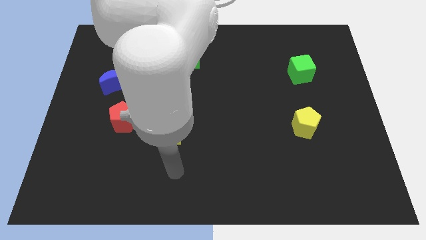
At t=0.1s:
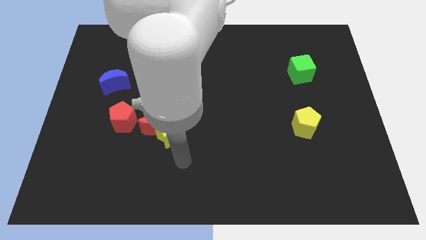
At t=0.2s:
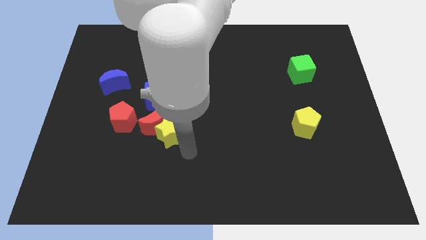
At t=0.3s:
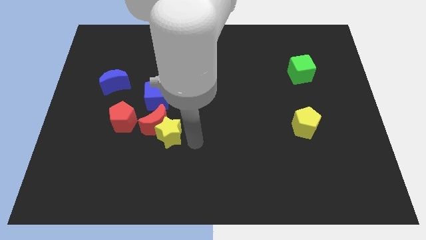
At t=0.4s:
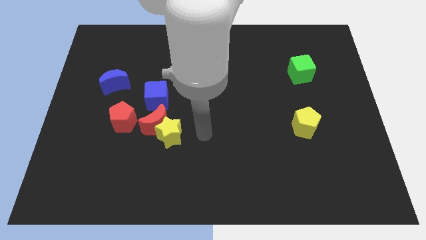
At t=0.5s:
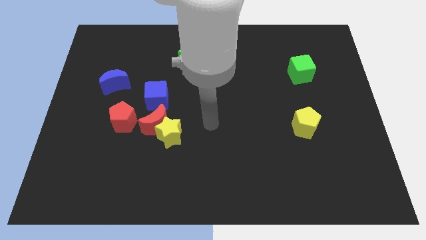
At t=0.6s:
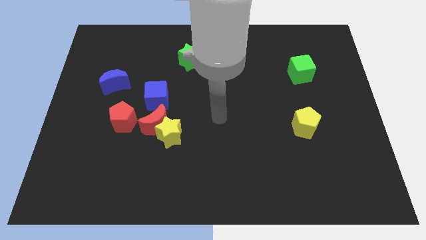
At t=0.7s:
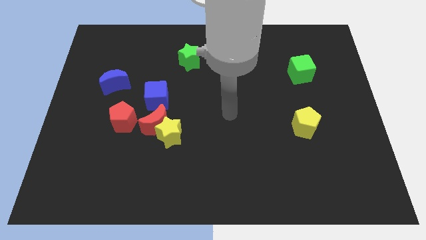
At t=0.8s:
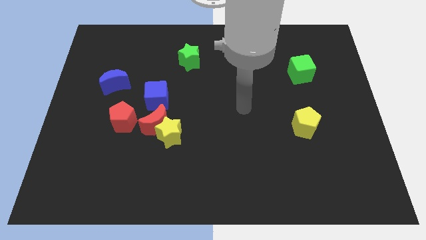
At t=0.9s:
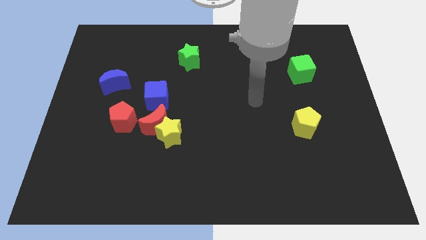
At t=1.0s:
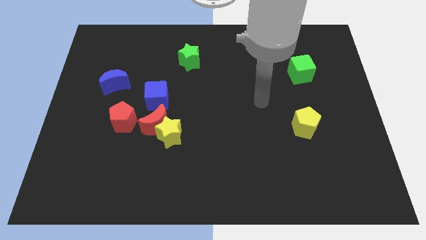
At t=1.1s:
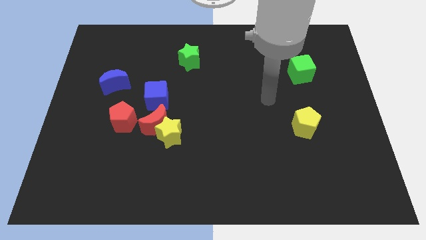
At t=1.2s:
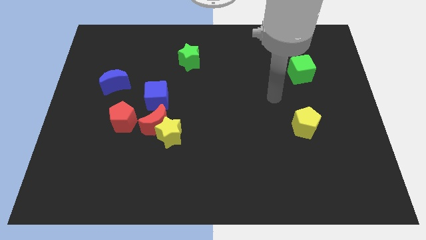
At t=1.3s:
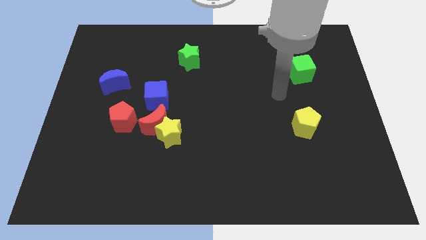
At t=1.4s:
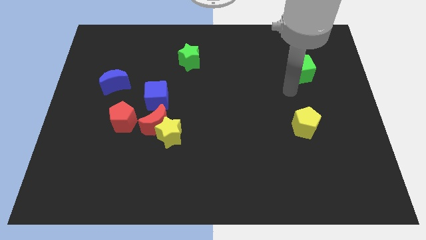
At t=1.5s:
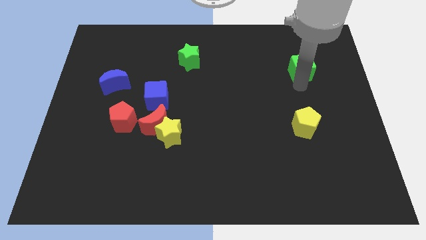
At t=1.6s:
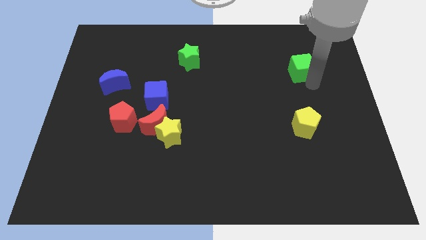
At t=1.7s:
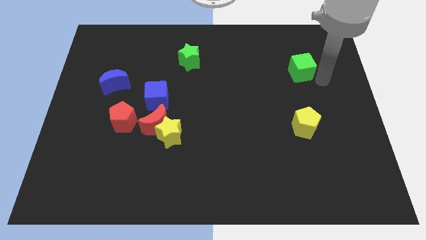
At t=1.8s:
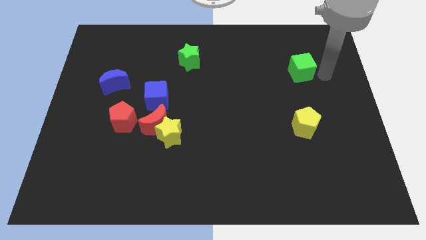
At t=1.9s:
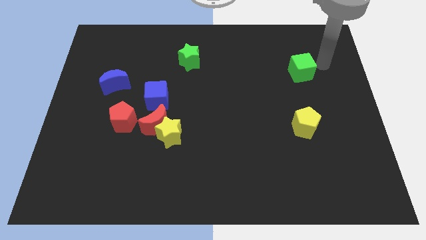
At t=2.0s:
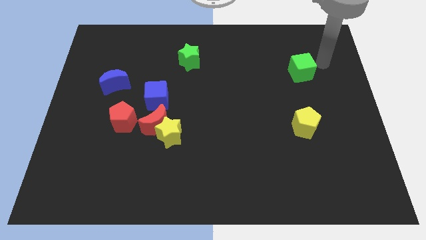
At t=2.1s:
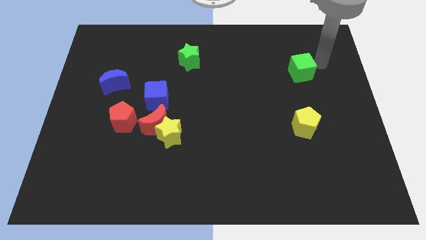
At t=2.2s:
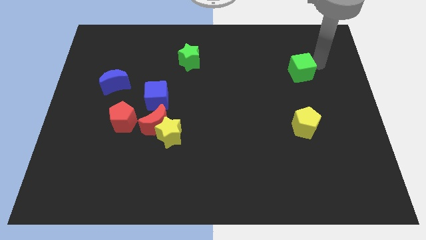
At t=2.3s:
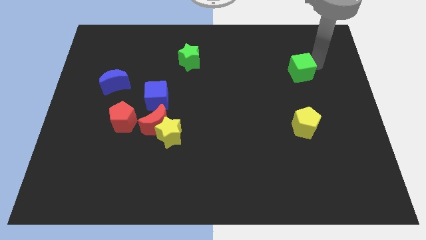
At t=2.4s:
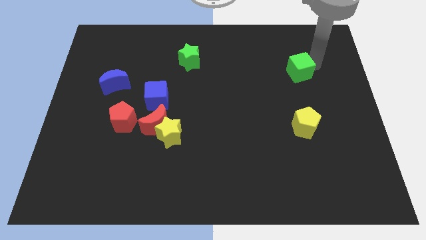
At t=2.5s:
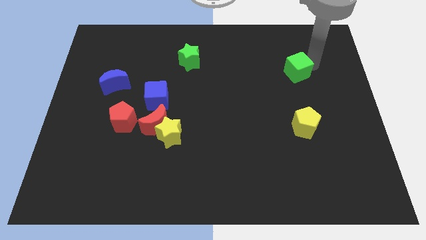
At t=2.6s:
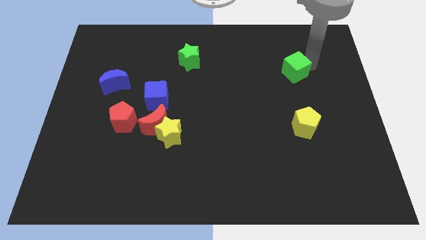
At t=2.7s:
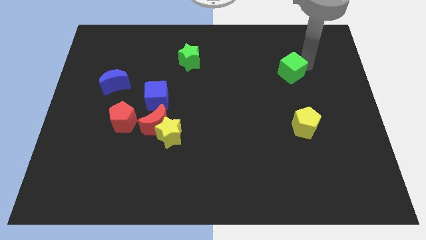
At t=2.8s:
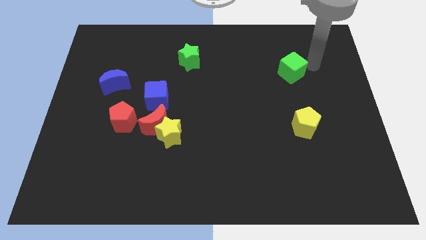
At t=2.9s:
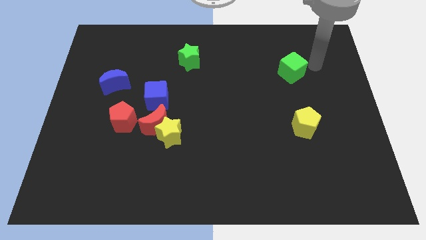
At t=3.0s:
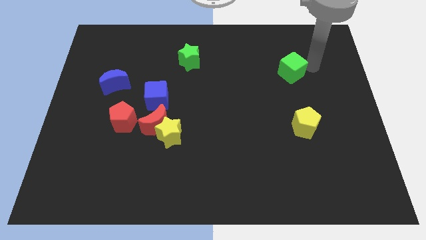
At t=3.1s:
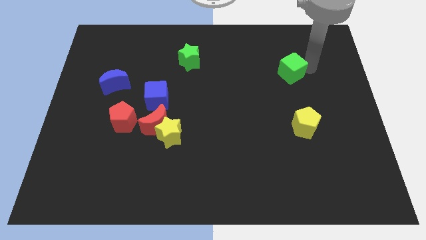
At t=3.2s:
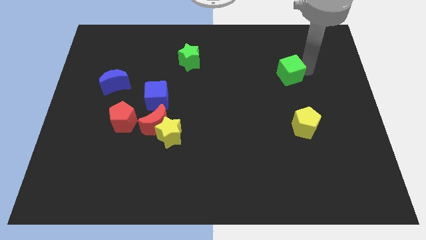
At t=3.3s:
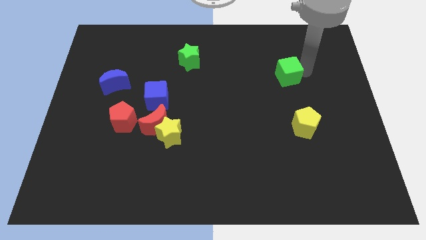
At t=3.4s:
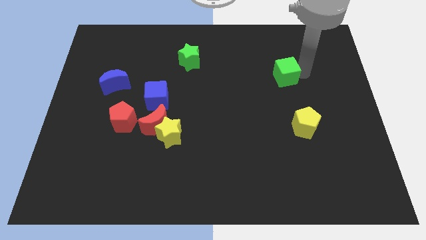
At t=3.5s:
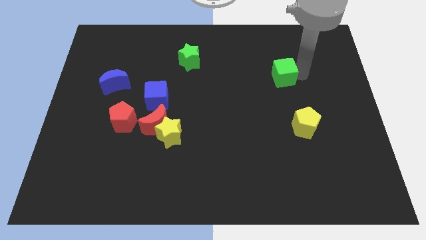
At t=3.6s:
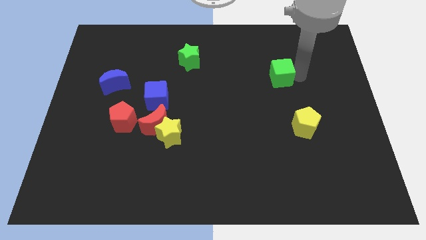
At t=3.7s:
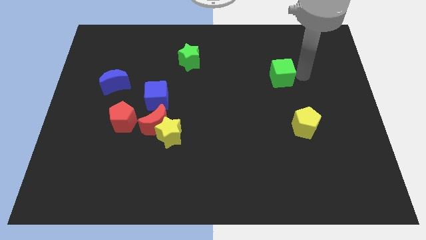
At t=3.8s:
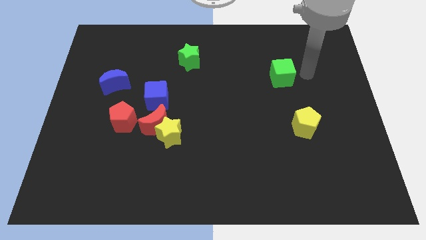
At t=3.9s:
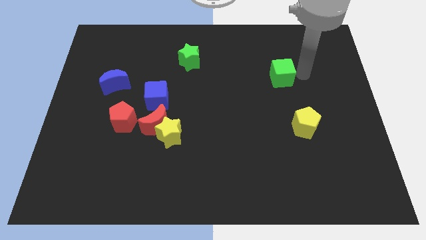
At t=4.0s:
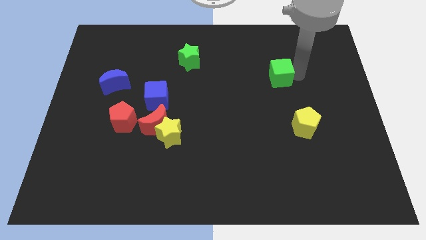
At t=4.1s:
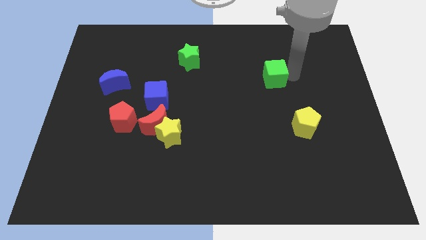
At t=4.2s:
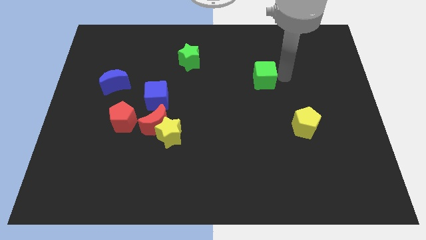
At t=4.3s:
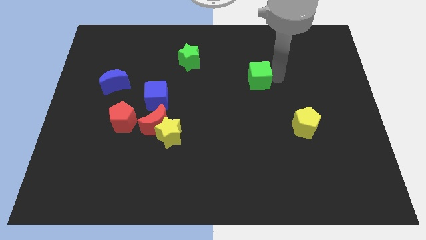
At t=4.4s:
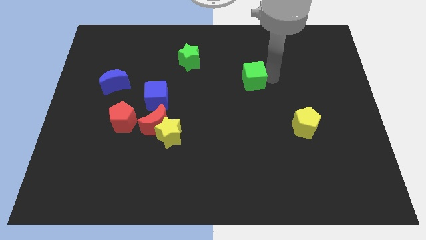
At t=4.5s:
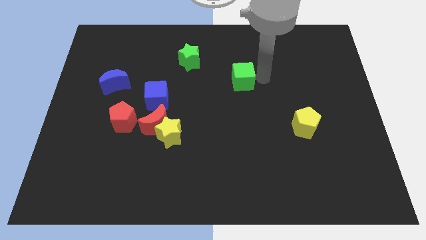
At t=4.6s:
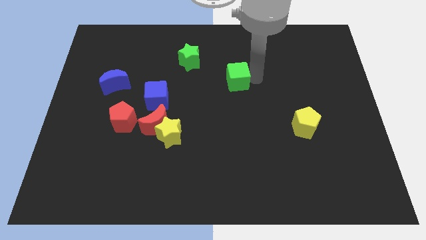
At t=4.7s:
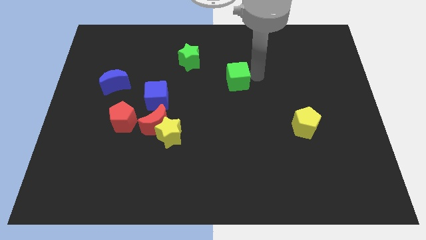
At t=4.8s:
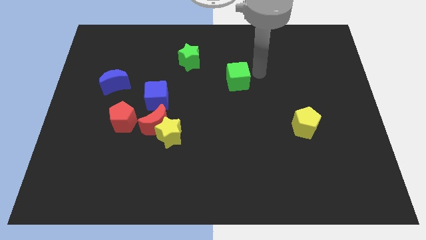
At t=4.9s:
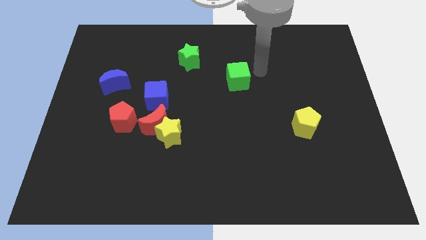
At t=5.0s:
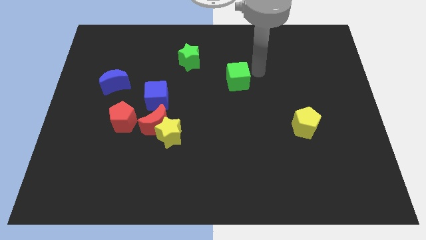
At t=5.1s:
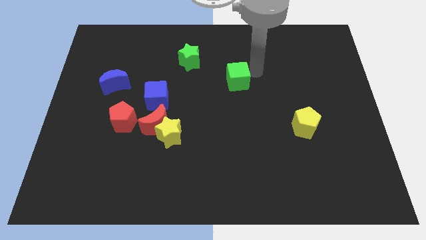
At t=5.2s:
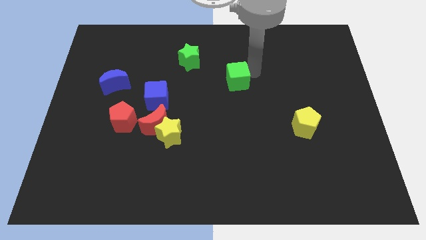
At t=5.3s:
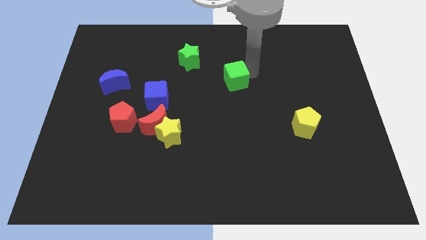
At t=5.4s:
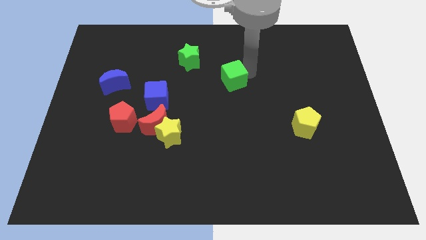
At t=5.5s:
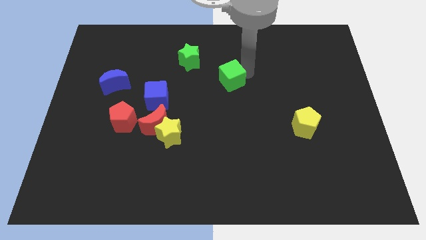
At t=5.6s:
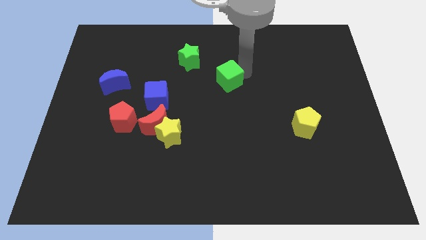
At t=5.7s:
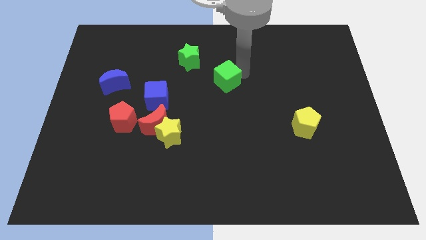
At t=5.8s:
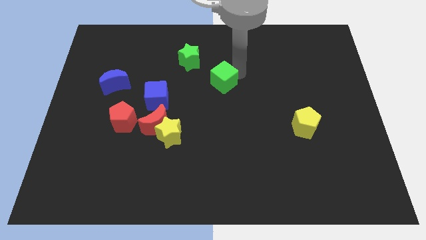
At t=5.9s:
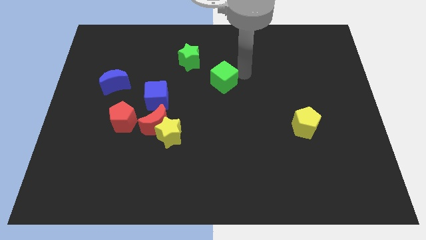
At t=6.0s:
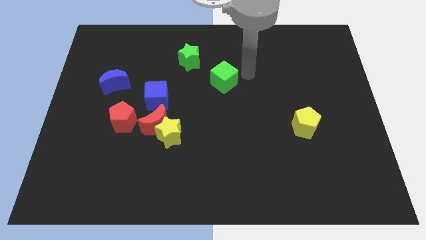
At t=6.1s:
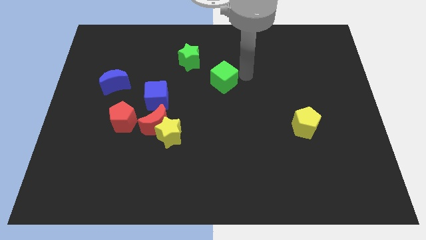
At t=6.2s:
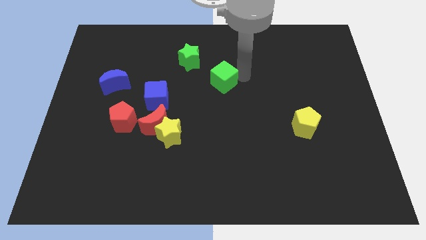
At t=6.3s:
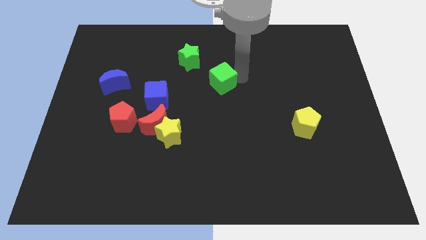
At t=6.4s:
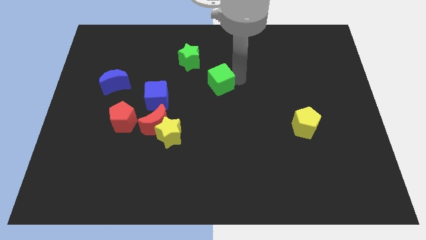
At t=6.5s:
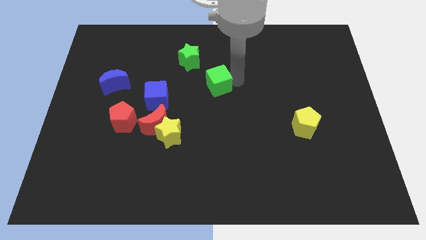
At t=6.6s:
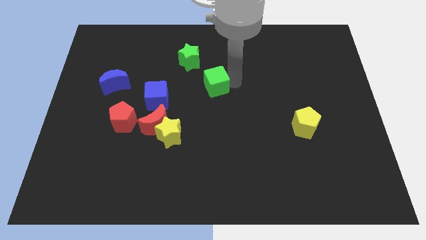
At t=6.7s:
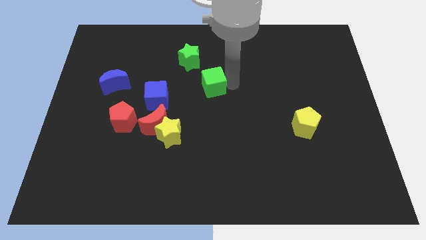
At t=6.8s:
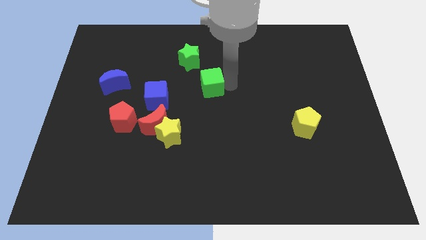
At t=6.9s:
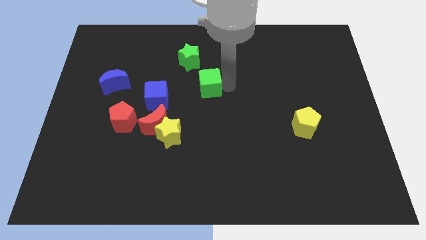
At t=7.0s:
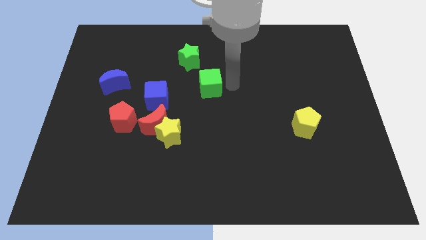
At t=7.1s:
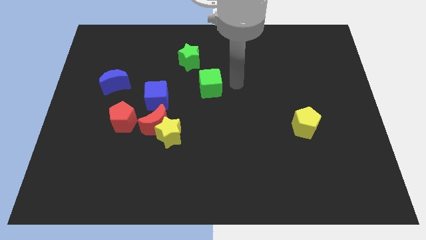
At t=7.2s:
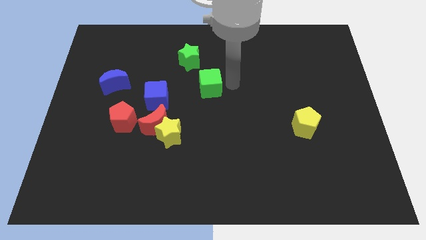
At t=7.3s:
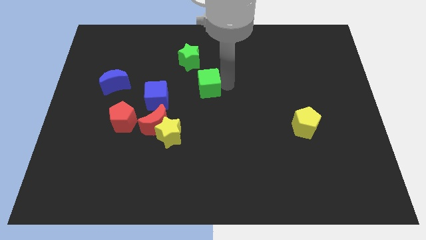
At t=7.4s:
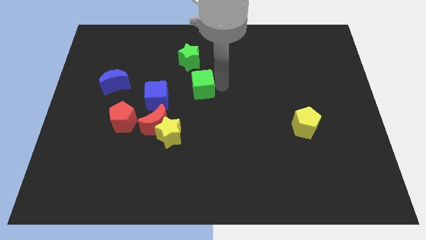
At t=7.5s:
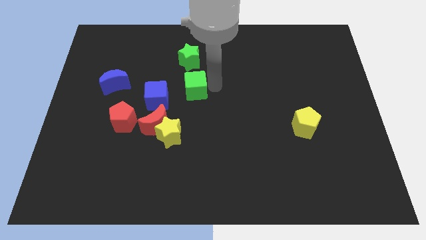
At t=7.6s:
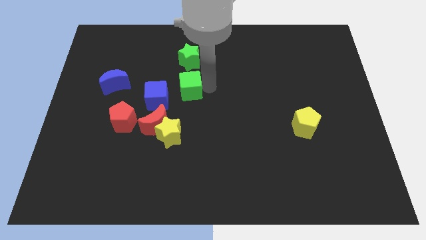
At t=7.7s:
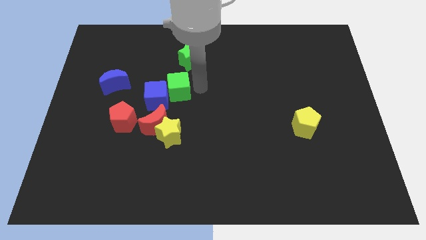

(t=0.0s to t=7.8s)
slide the green cube close to the blue cube
